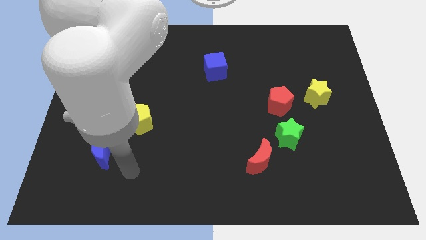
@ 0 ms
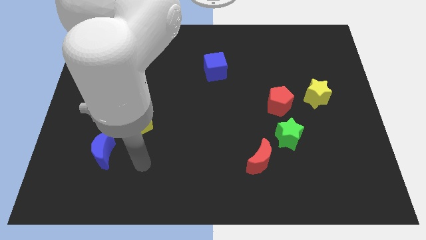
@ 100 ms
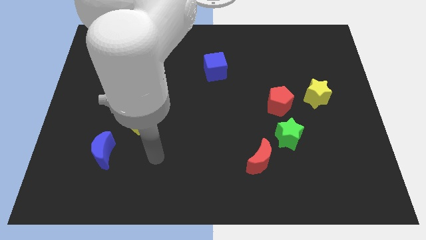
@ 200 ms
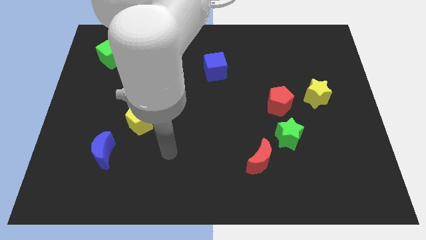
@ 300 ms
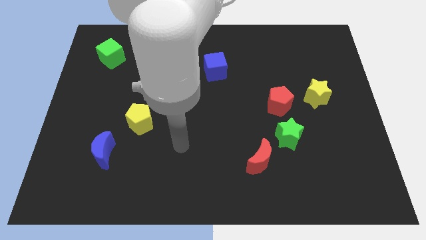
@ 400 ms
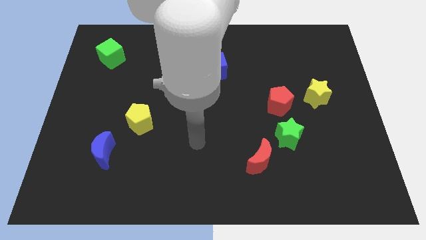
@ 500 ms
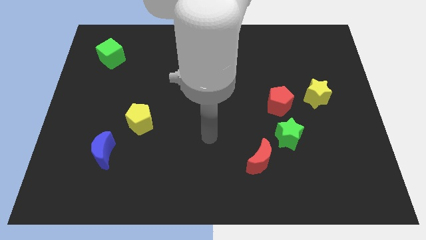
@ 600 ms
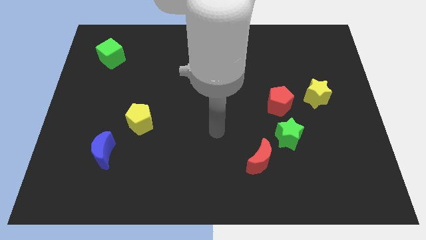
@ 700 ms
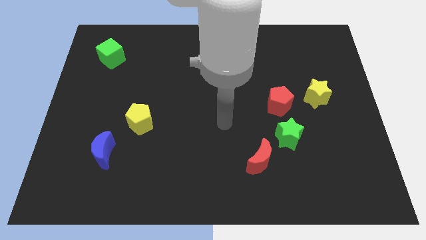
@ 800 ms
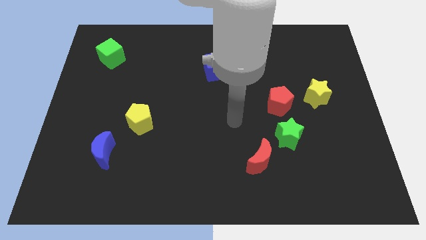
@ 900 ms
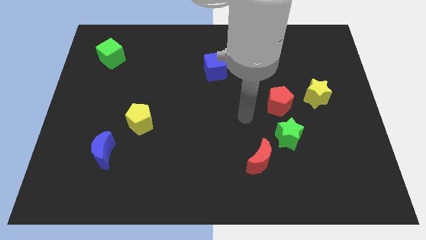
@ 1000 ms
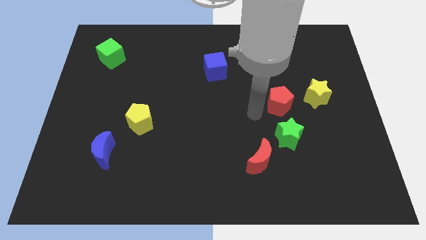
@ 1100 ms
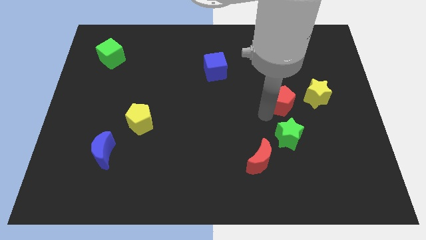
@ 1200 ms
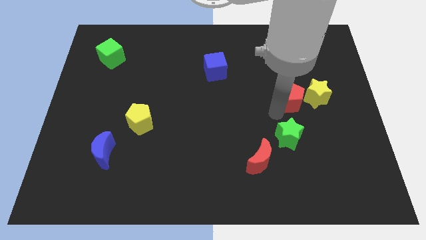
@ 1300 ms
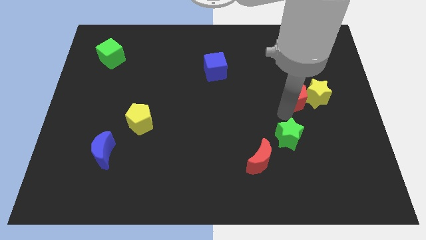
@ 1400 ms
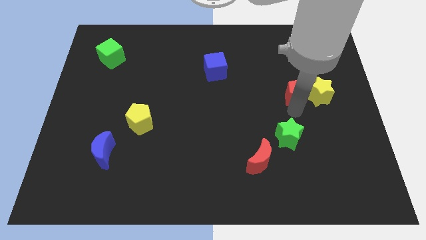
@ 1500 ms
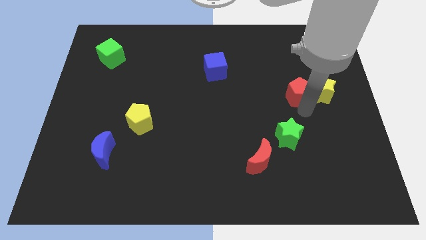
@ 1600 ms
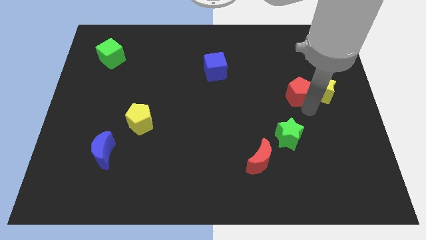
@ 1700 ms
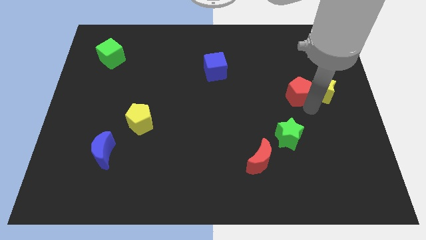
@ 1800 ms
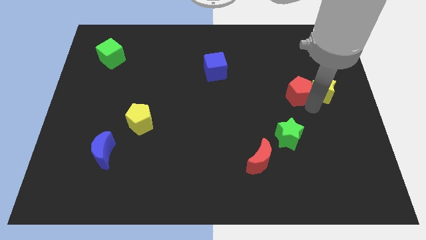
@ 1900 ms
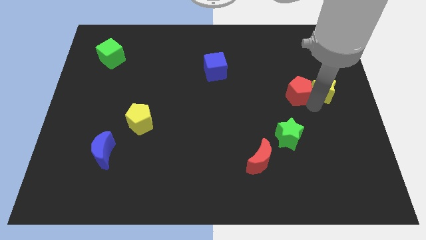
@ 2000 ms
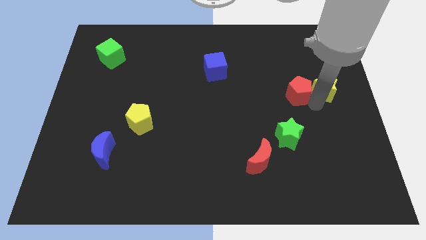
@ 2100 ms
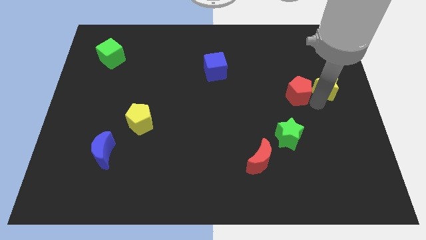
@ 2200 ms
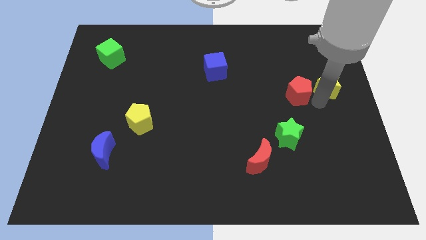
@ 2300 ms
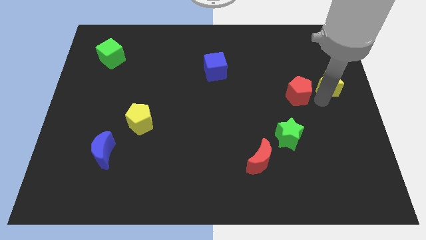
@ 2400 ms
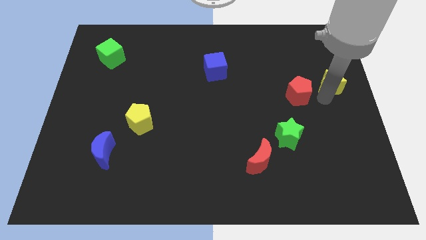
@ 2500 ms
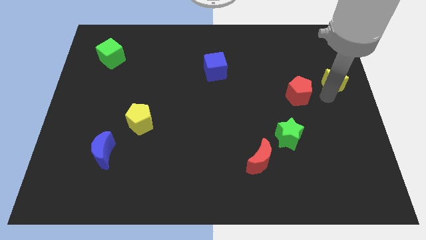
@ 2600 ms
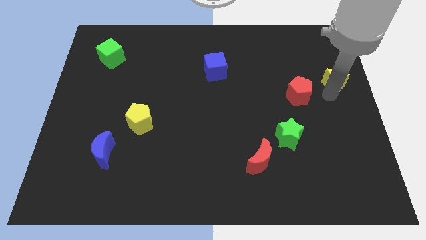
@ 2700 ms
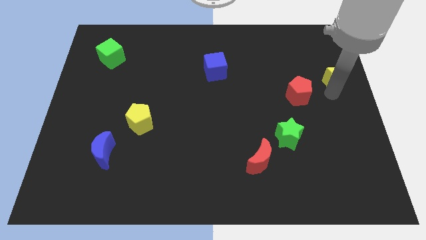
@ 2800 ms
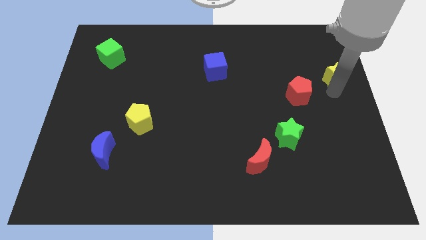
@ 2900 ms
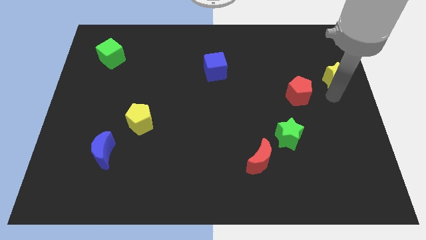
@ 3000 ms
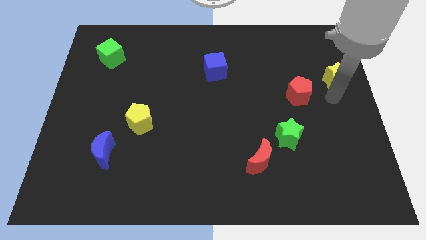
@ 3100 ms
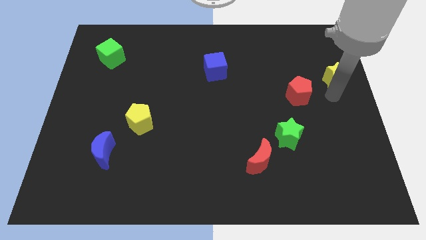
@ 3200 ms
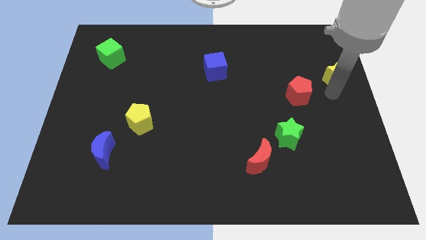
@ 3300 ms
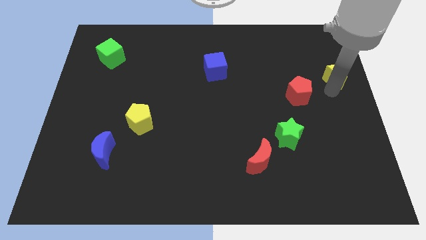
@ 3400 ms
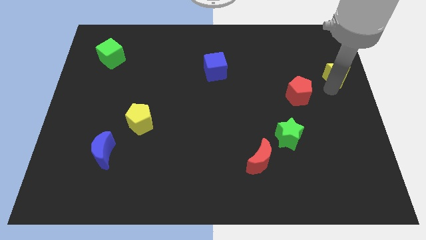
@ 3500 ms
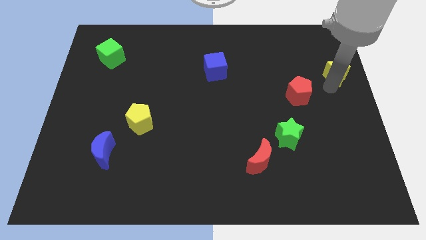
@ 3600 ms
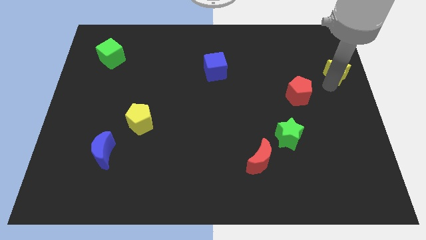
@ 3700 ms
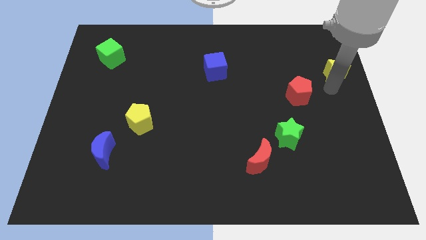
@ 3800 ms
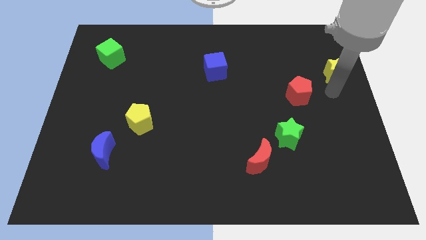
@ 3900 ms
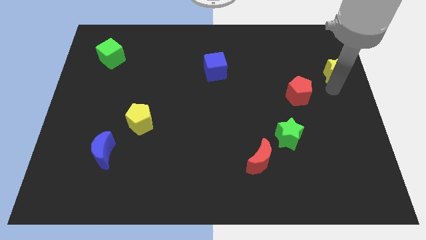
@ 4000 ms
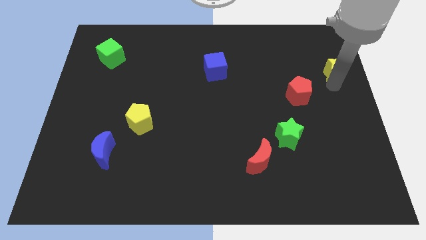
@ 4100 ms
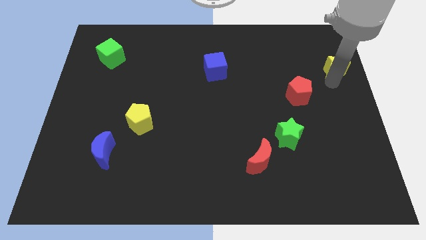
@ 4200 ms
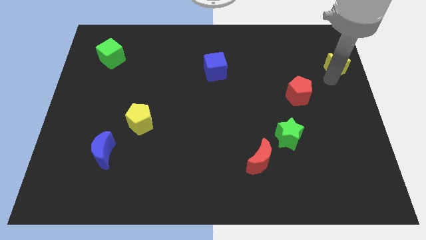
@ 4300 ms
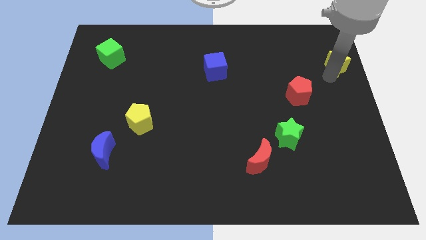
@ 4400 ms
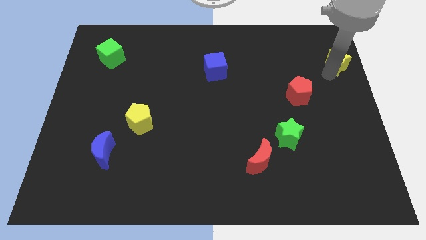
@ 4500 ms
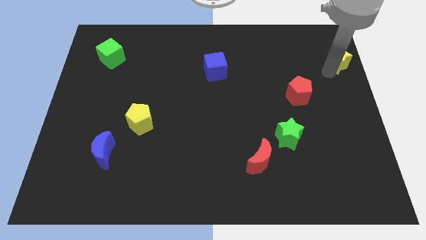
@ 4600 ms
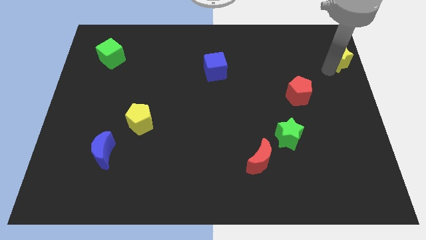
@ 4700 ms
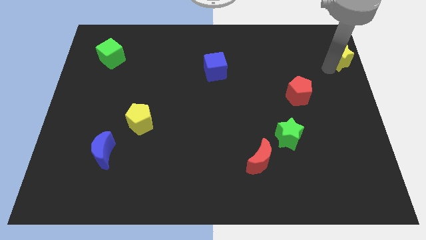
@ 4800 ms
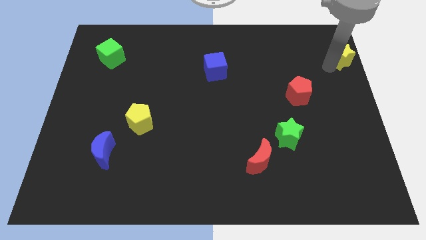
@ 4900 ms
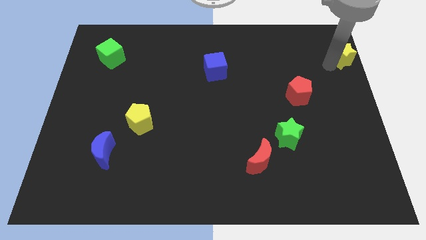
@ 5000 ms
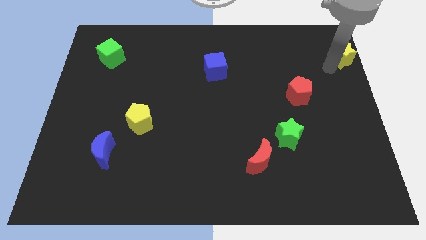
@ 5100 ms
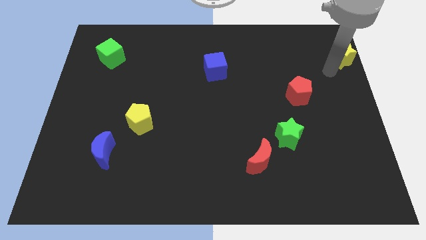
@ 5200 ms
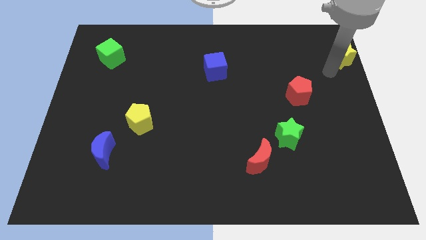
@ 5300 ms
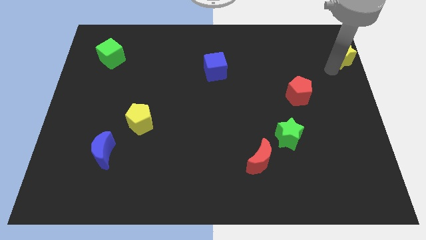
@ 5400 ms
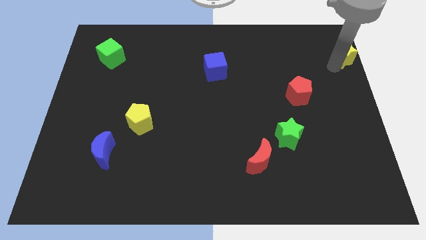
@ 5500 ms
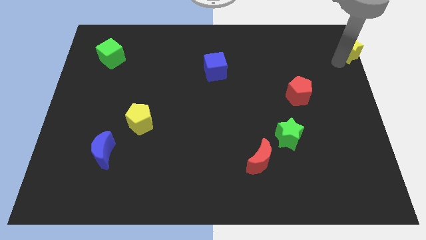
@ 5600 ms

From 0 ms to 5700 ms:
slide the yellow star to the upper right corner
